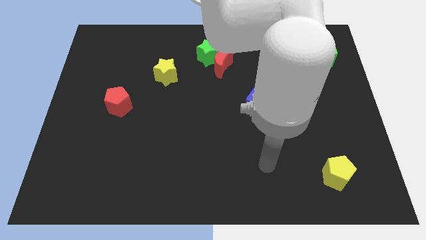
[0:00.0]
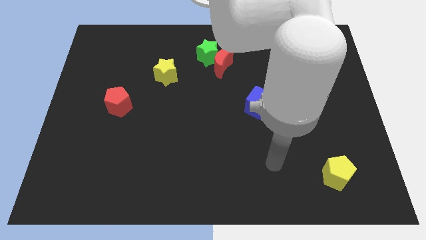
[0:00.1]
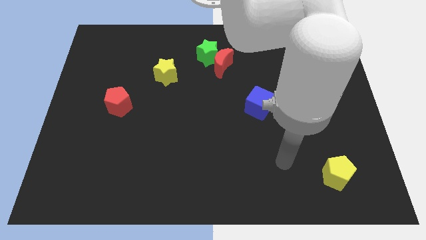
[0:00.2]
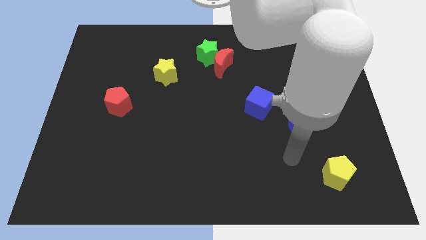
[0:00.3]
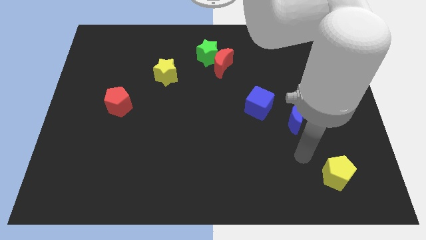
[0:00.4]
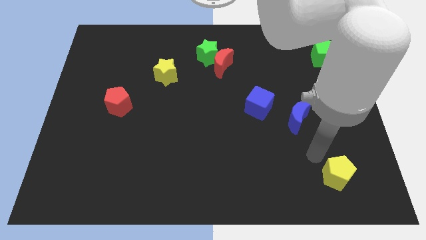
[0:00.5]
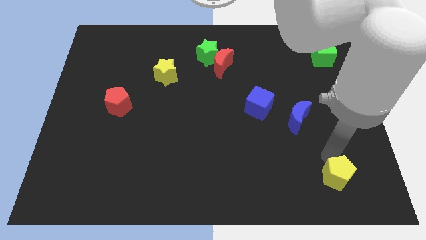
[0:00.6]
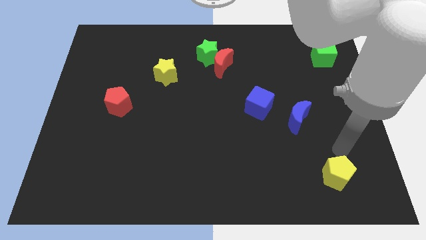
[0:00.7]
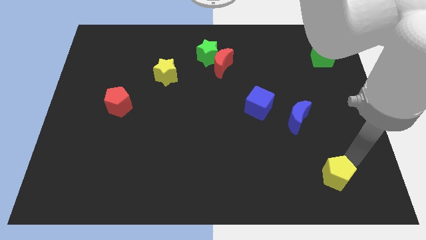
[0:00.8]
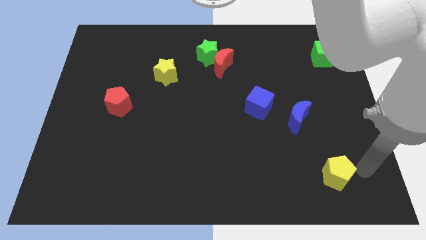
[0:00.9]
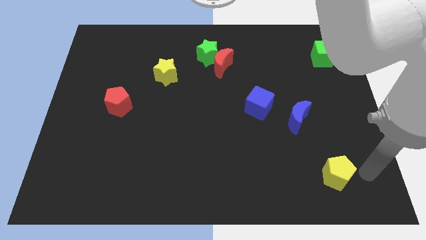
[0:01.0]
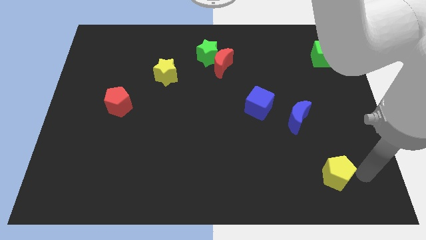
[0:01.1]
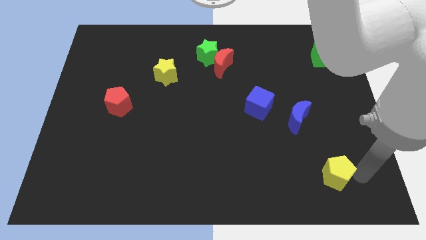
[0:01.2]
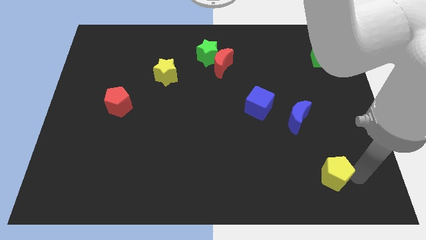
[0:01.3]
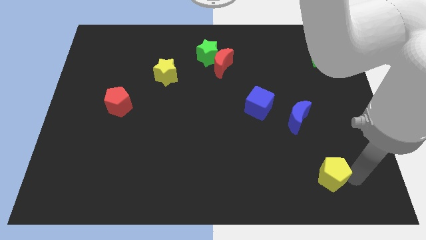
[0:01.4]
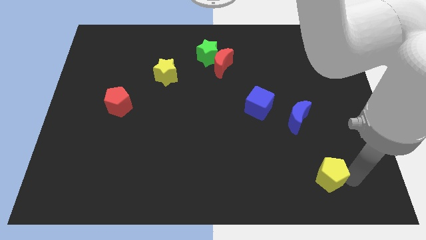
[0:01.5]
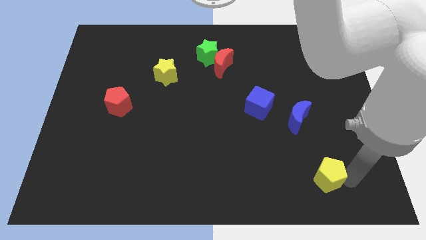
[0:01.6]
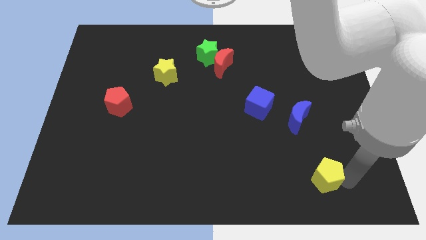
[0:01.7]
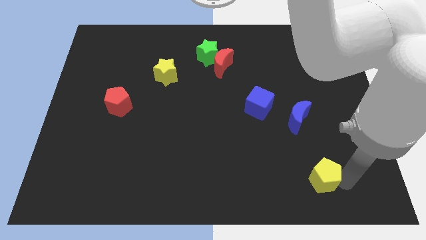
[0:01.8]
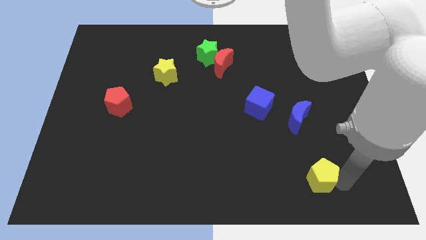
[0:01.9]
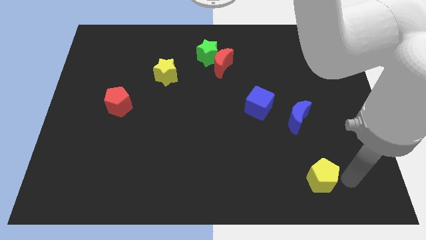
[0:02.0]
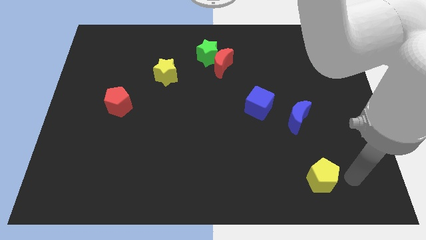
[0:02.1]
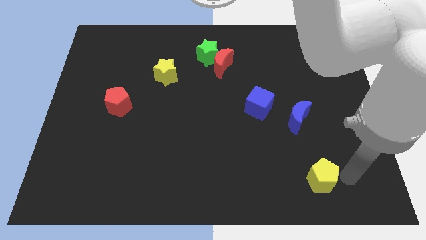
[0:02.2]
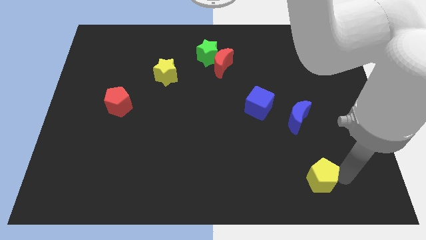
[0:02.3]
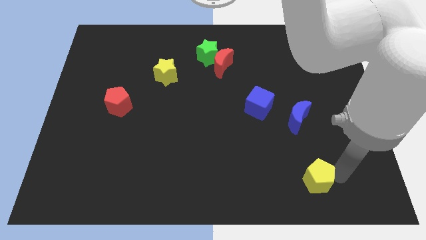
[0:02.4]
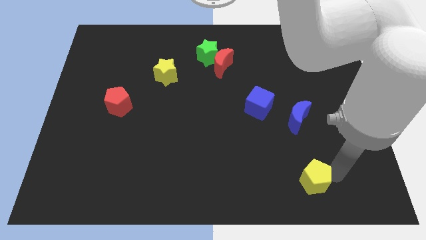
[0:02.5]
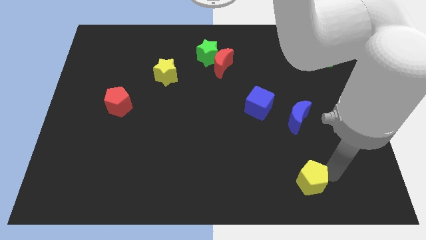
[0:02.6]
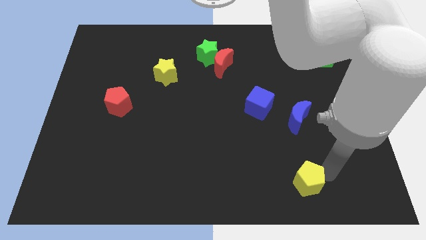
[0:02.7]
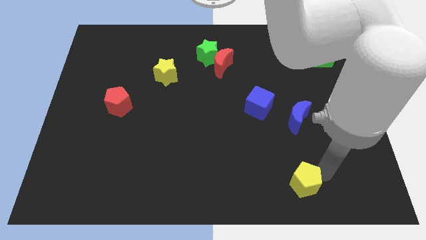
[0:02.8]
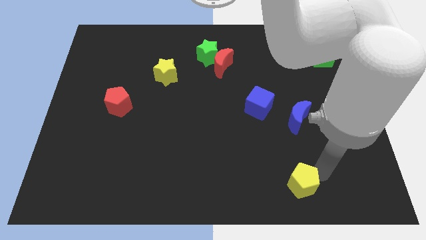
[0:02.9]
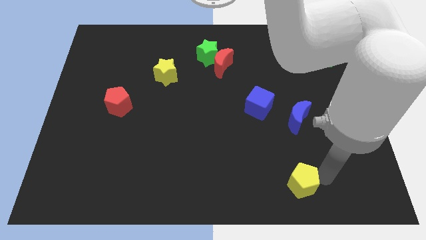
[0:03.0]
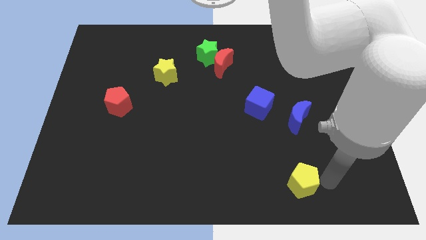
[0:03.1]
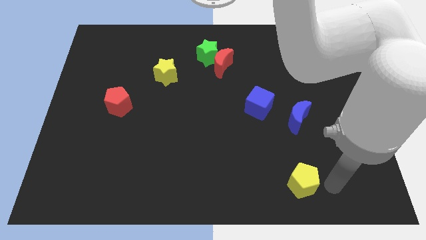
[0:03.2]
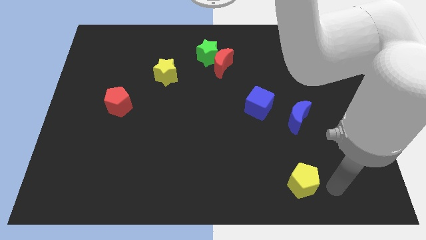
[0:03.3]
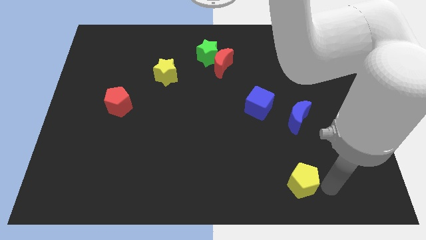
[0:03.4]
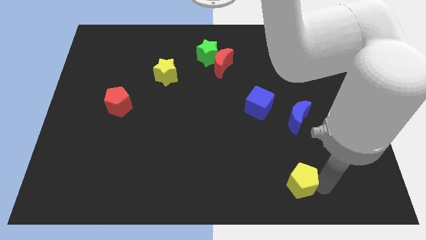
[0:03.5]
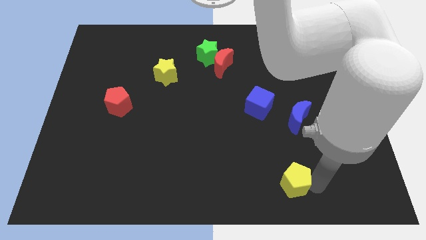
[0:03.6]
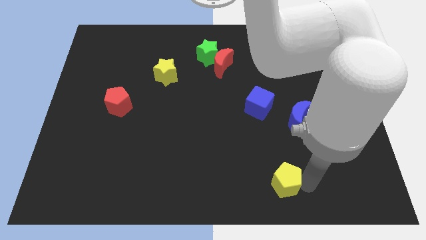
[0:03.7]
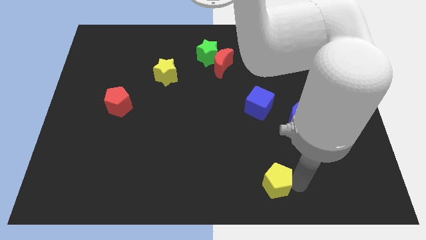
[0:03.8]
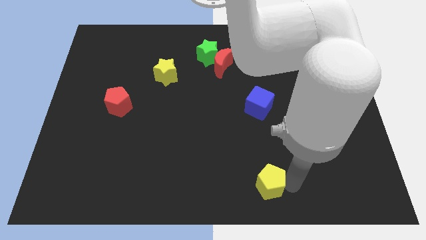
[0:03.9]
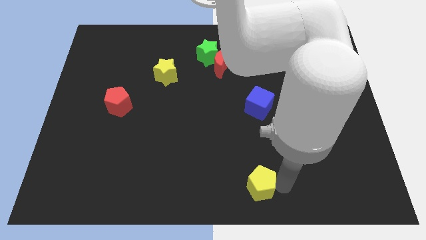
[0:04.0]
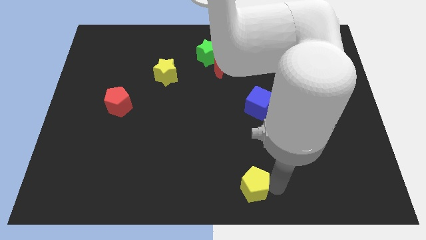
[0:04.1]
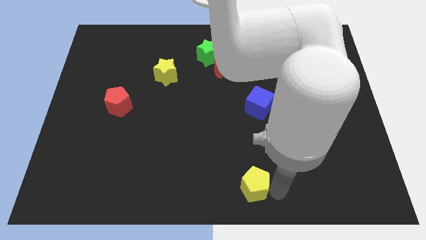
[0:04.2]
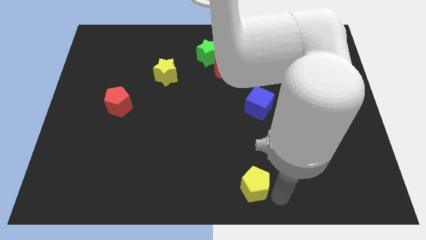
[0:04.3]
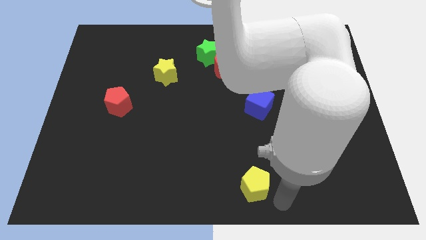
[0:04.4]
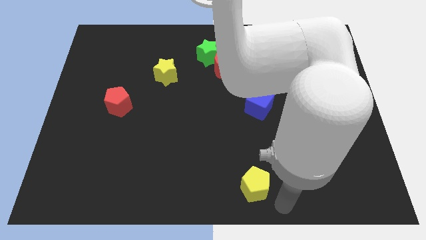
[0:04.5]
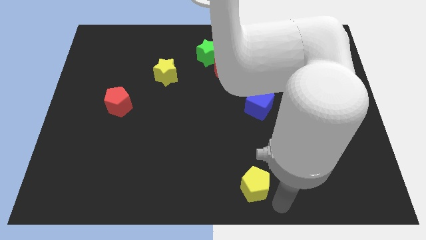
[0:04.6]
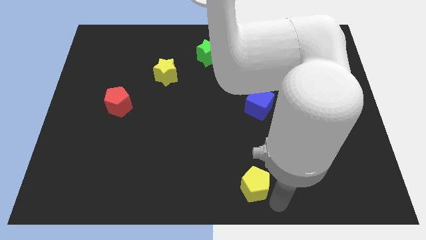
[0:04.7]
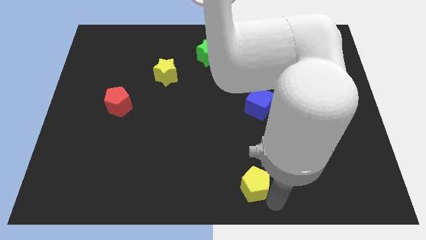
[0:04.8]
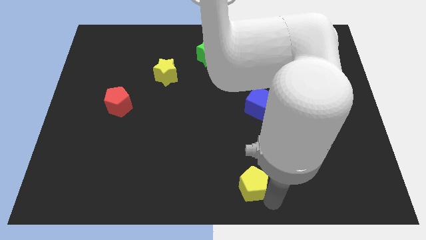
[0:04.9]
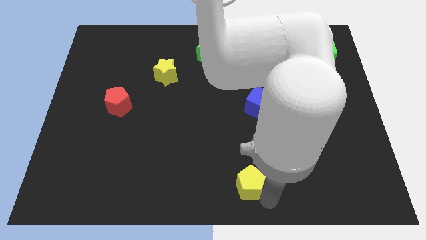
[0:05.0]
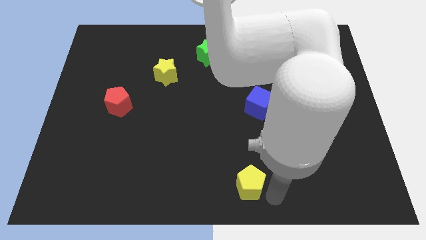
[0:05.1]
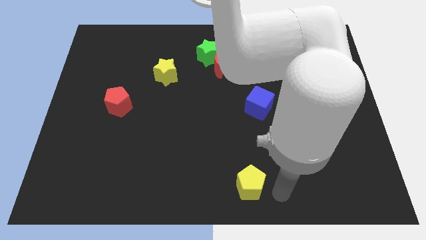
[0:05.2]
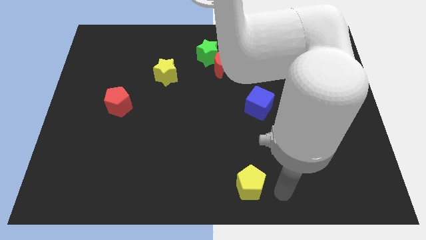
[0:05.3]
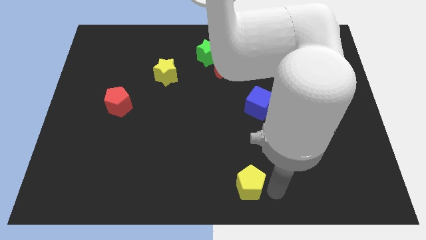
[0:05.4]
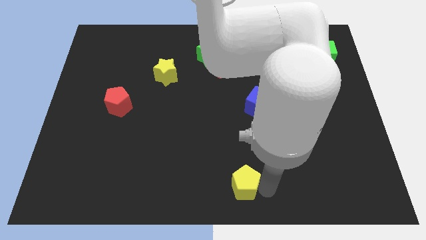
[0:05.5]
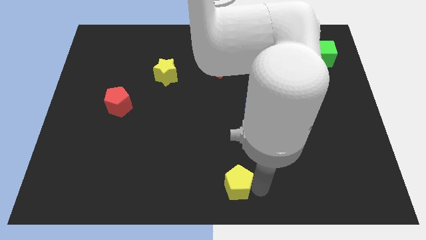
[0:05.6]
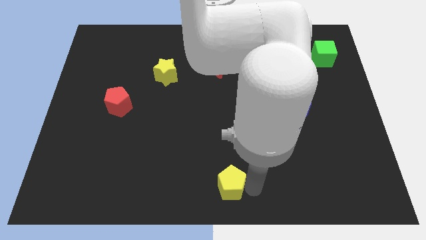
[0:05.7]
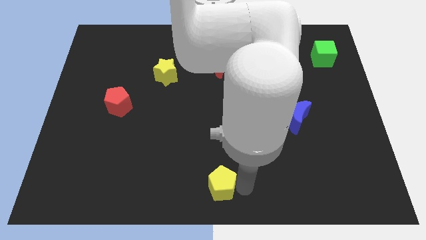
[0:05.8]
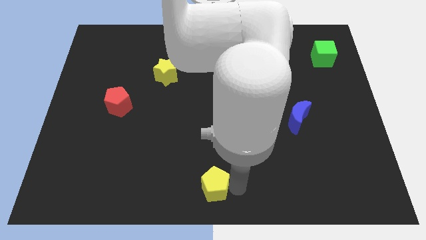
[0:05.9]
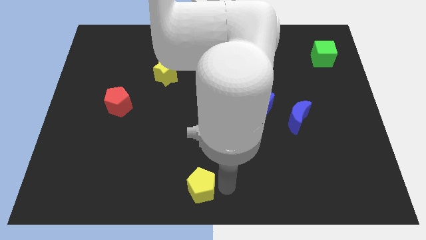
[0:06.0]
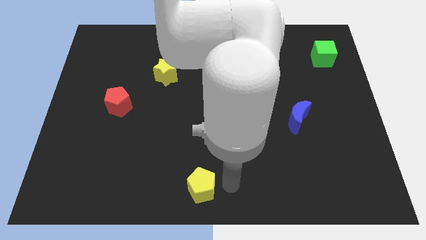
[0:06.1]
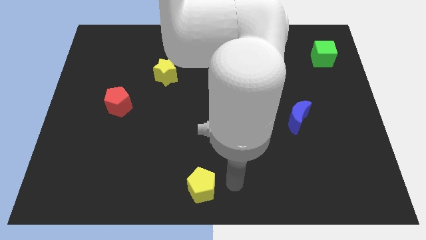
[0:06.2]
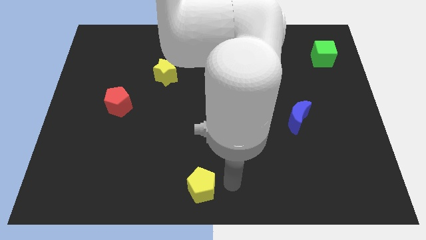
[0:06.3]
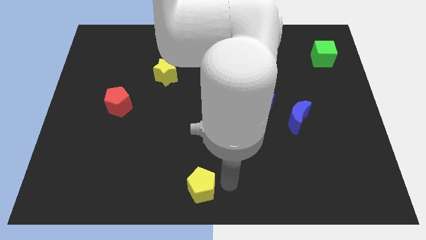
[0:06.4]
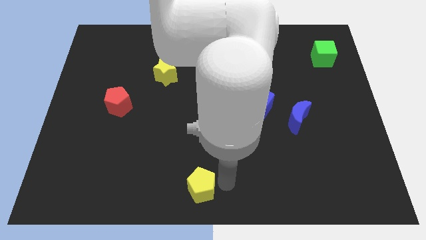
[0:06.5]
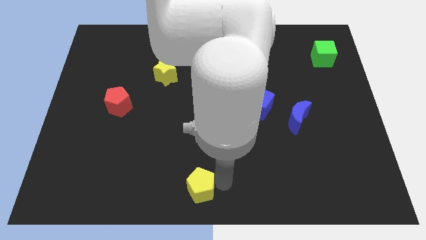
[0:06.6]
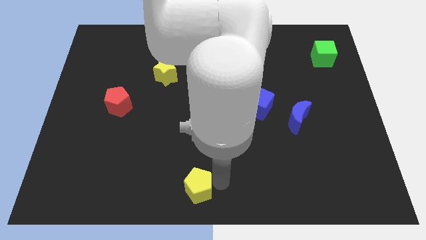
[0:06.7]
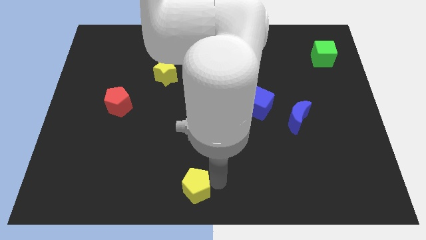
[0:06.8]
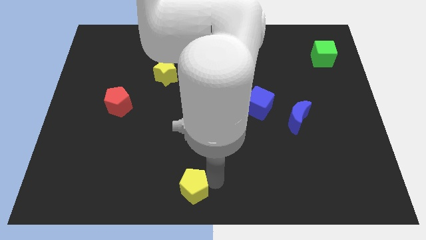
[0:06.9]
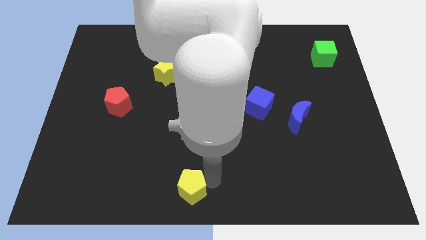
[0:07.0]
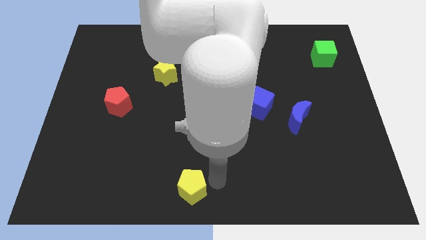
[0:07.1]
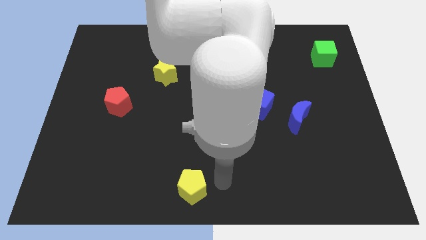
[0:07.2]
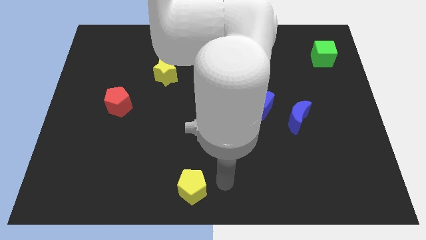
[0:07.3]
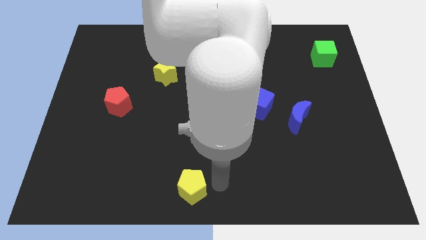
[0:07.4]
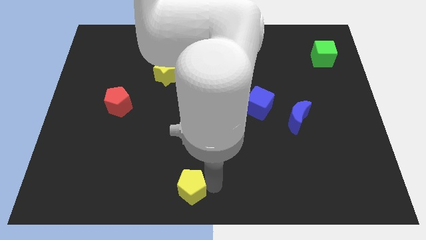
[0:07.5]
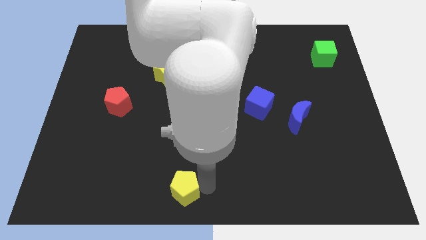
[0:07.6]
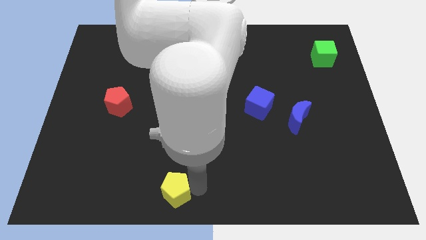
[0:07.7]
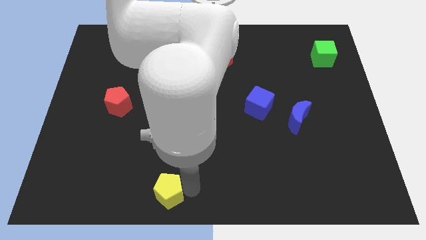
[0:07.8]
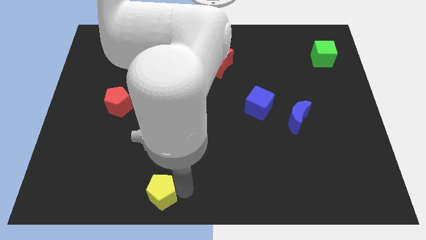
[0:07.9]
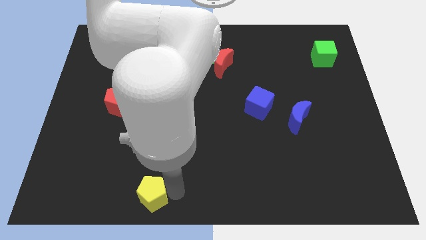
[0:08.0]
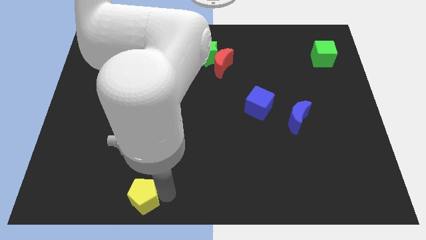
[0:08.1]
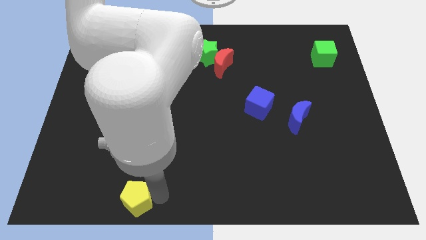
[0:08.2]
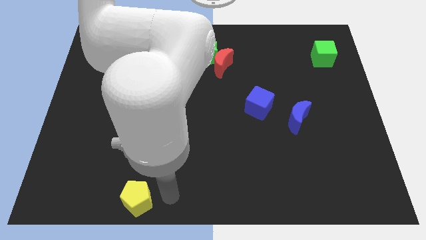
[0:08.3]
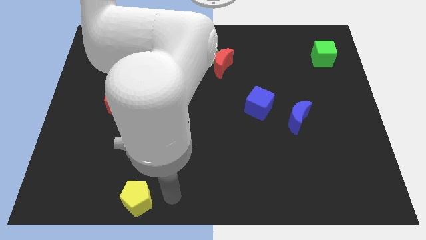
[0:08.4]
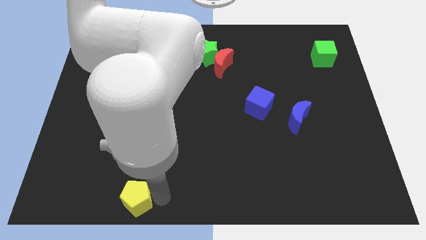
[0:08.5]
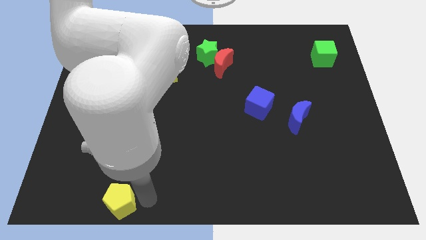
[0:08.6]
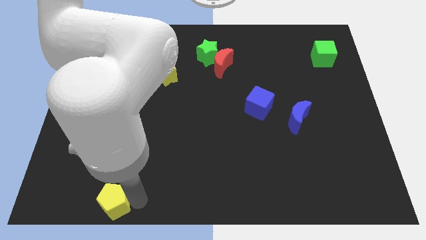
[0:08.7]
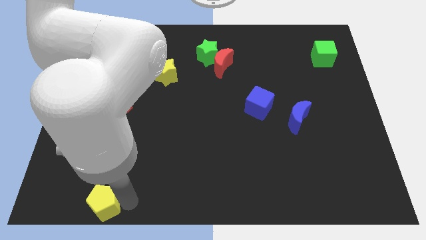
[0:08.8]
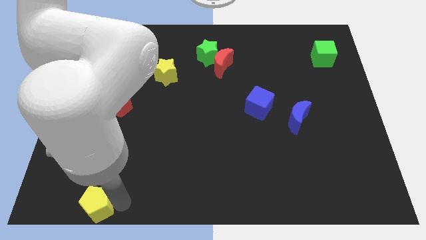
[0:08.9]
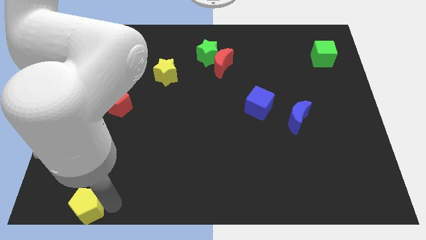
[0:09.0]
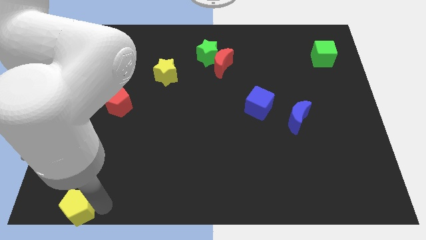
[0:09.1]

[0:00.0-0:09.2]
slide the yellow pentagon to the bottom left of the board
